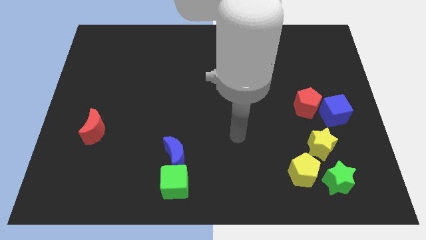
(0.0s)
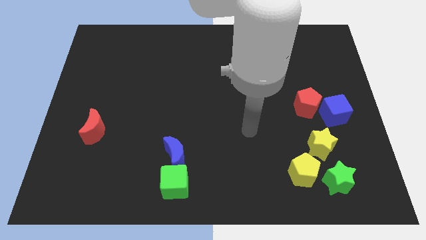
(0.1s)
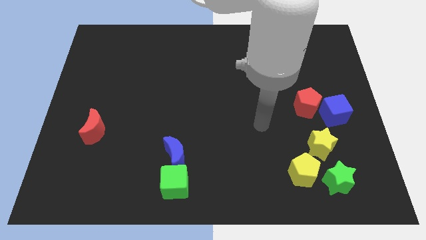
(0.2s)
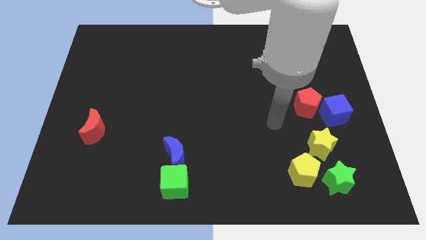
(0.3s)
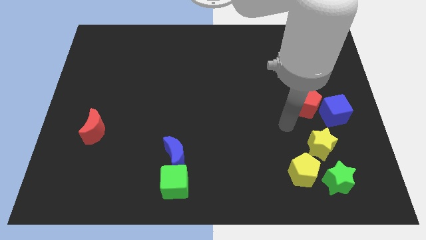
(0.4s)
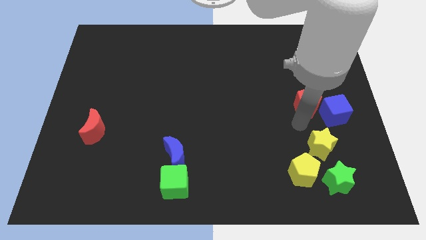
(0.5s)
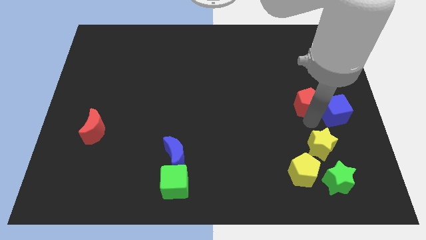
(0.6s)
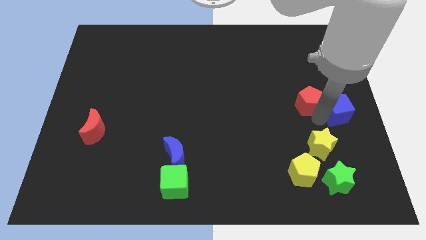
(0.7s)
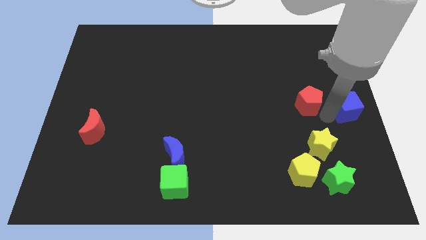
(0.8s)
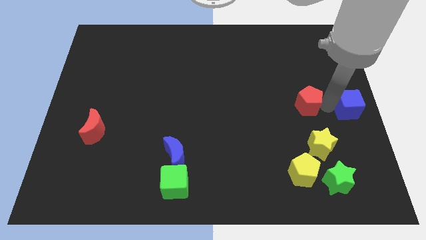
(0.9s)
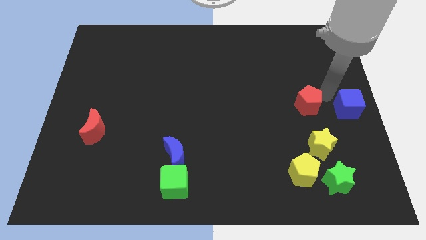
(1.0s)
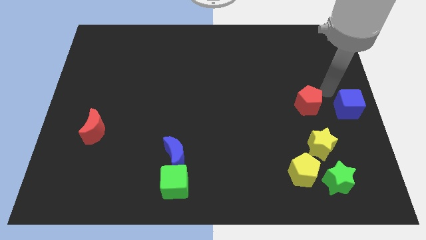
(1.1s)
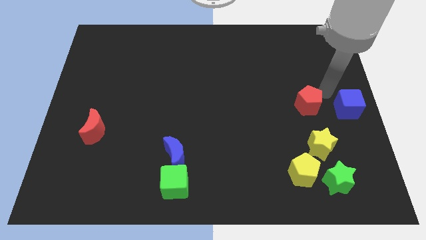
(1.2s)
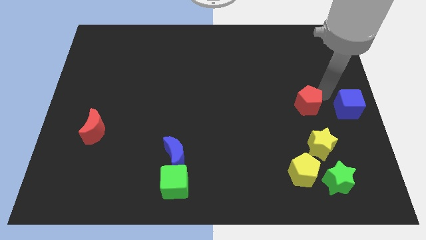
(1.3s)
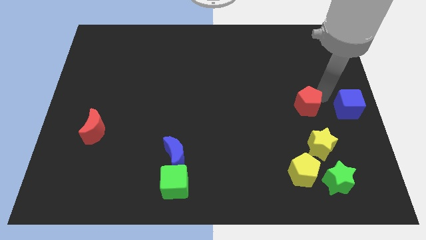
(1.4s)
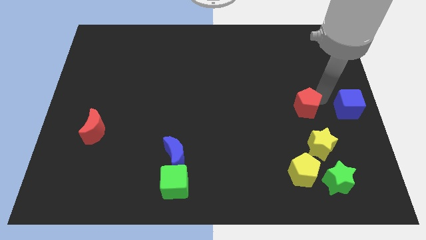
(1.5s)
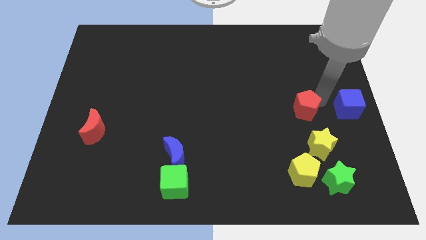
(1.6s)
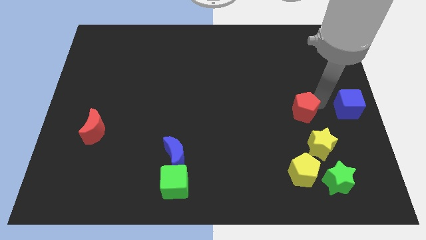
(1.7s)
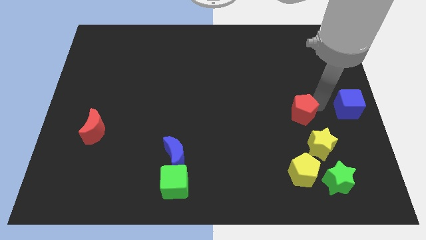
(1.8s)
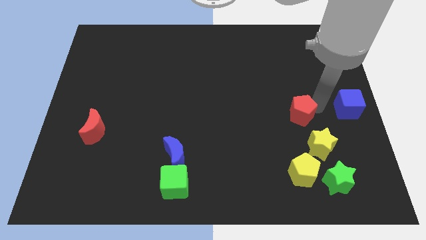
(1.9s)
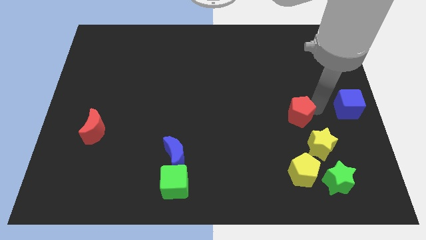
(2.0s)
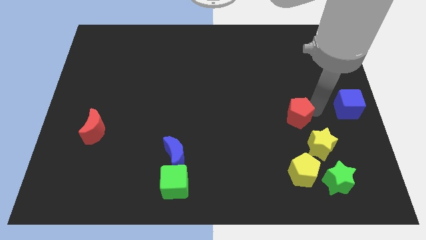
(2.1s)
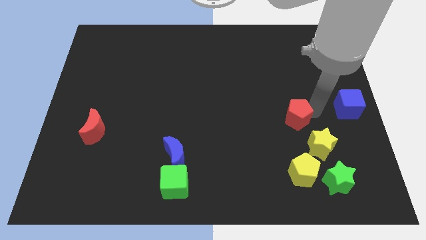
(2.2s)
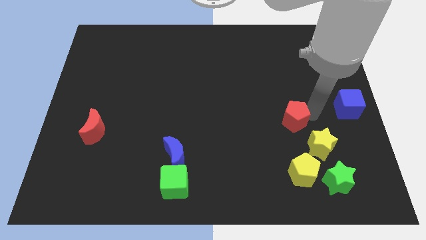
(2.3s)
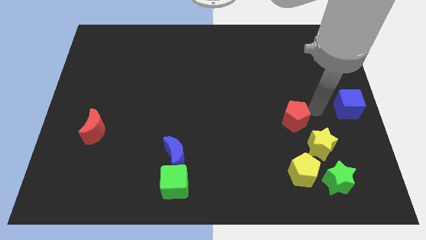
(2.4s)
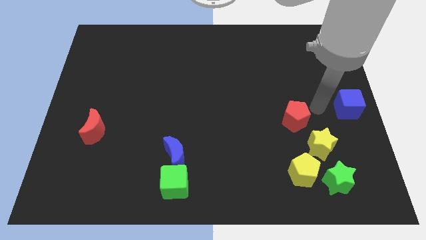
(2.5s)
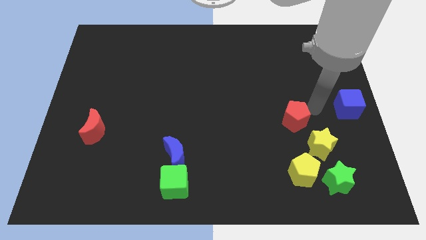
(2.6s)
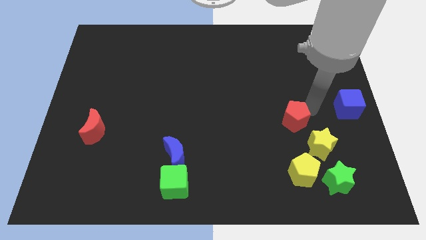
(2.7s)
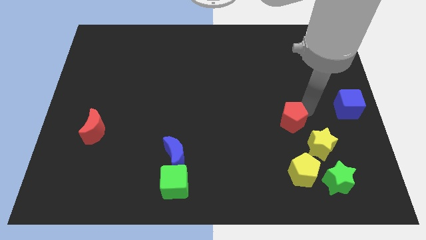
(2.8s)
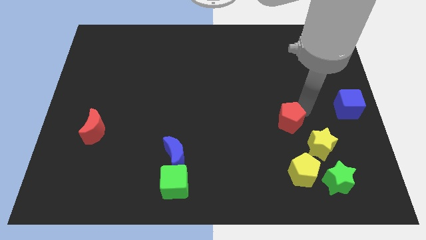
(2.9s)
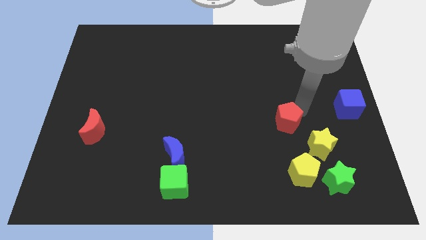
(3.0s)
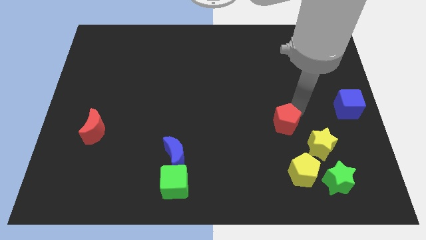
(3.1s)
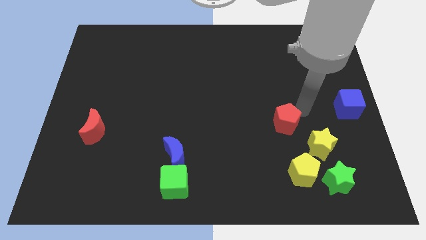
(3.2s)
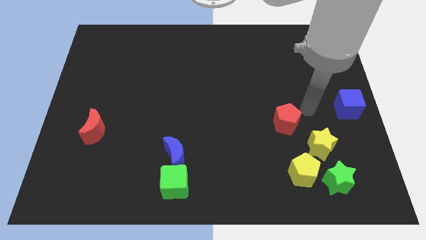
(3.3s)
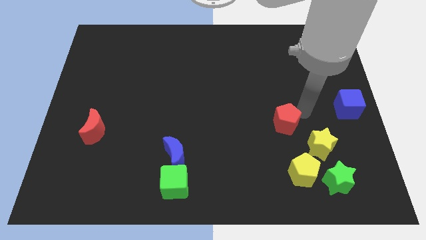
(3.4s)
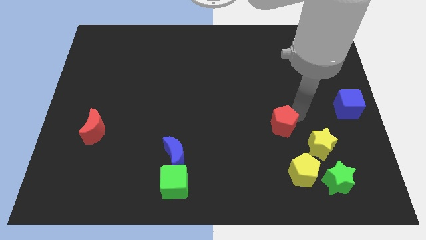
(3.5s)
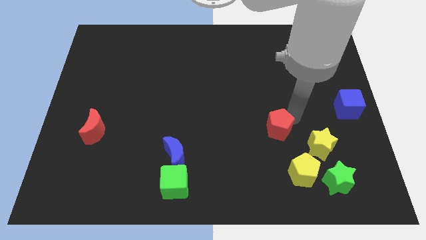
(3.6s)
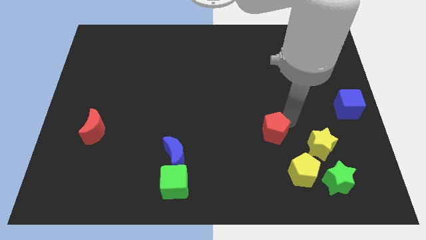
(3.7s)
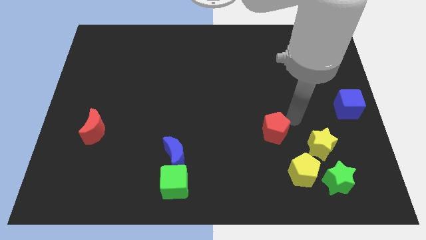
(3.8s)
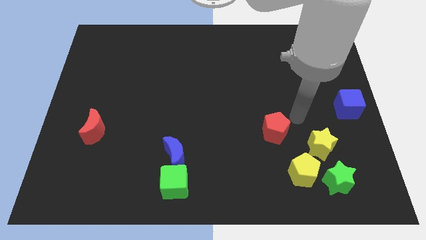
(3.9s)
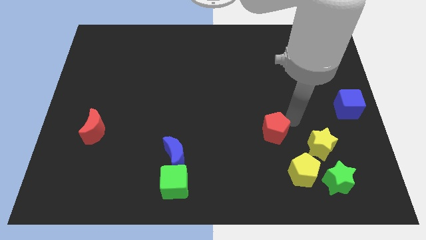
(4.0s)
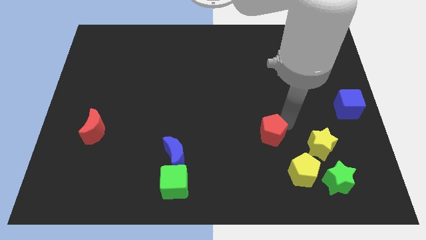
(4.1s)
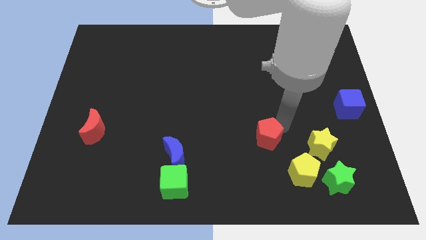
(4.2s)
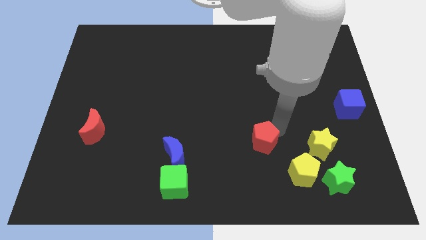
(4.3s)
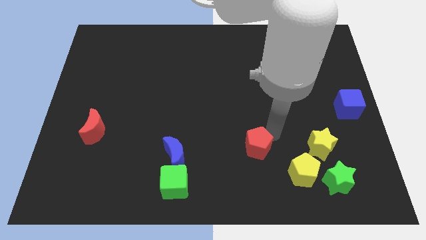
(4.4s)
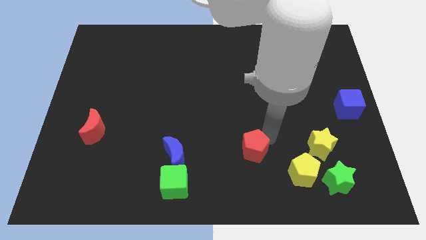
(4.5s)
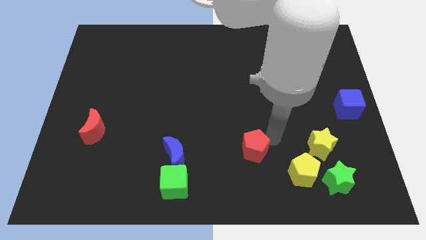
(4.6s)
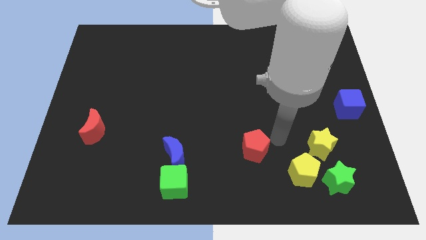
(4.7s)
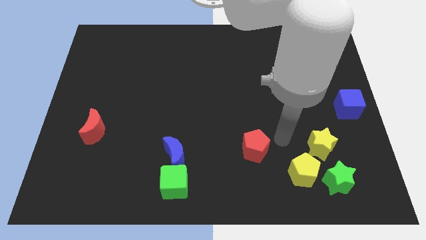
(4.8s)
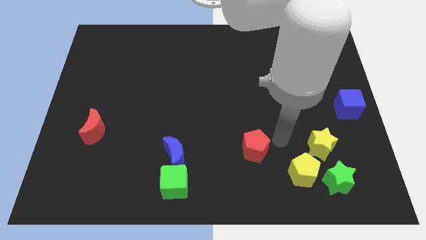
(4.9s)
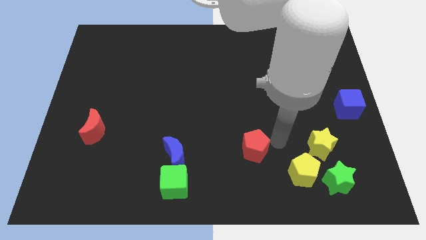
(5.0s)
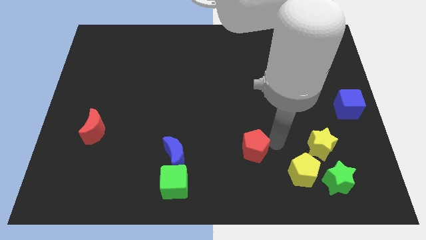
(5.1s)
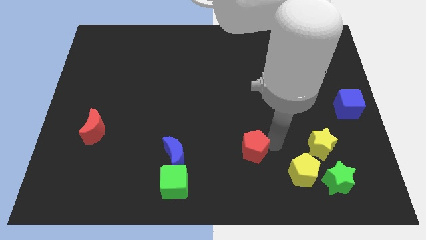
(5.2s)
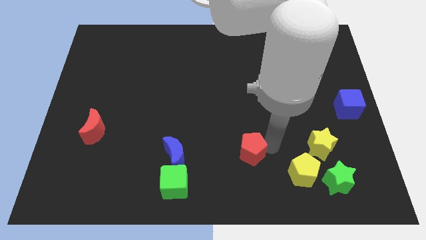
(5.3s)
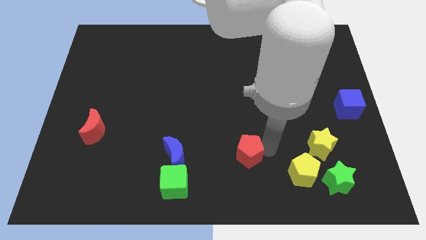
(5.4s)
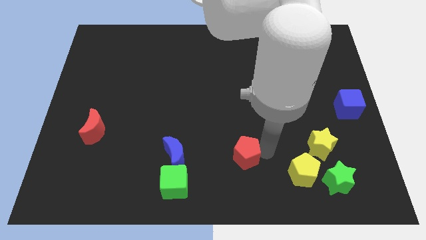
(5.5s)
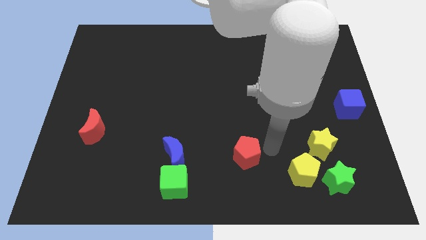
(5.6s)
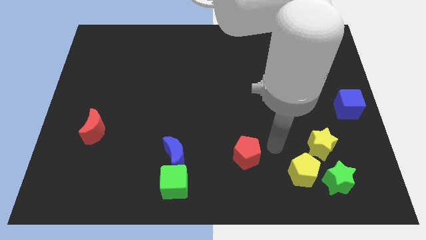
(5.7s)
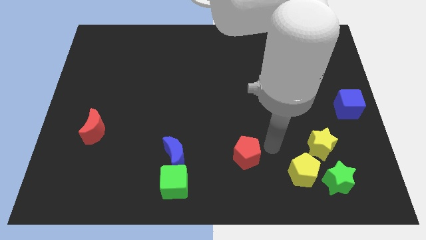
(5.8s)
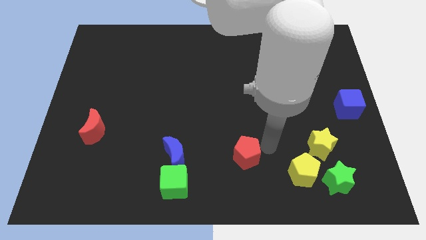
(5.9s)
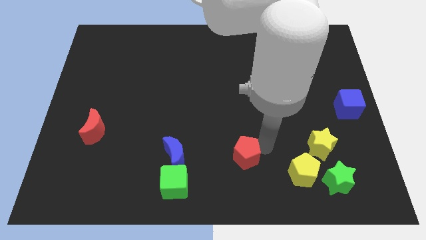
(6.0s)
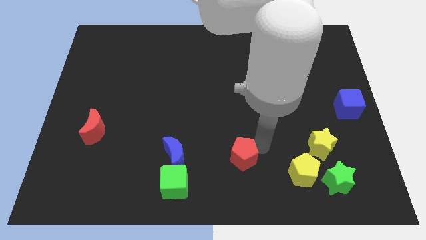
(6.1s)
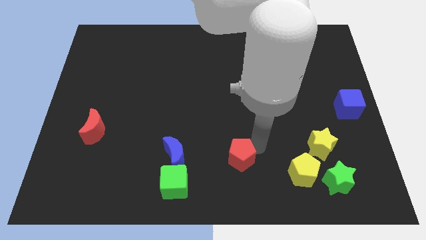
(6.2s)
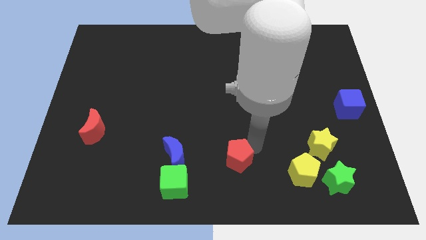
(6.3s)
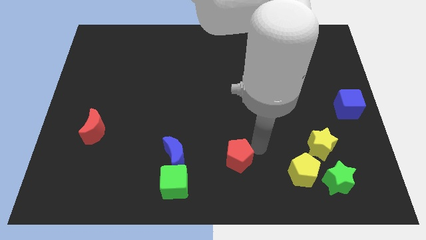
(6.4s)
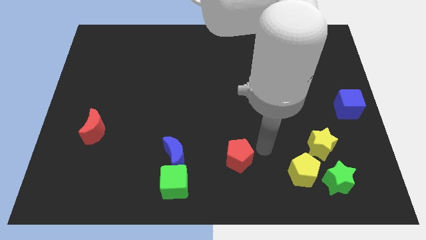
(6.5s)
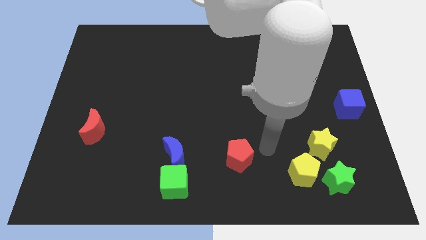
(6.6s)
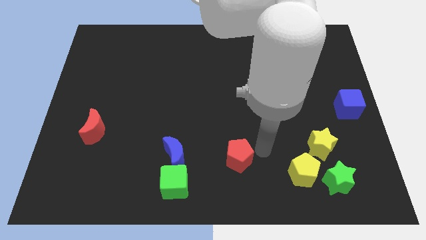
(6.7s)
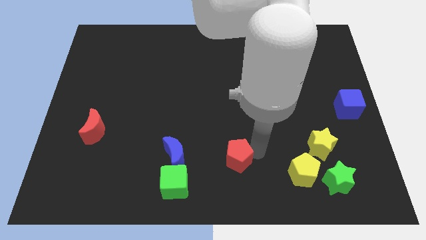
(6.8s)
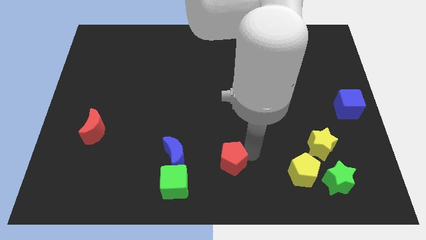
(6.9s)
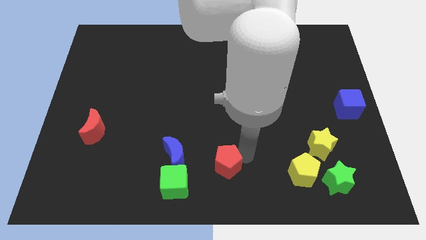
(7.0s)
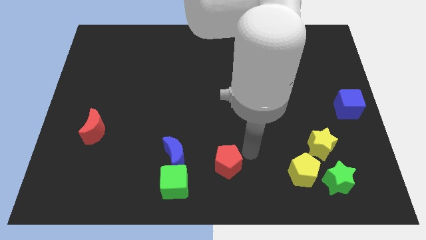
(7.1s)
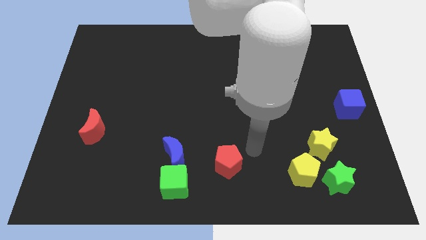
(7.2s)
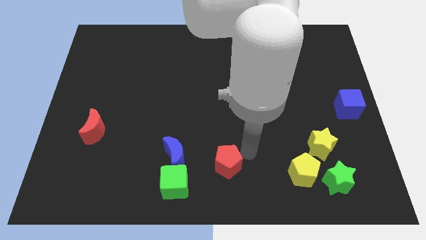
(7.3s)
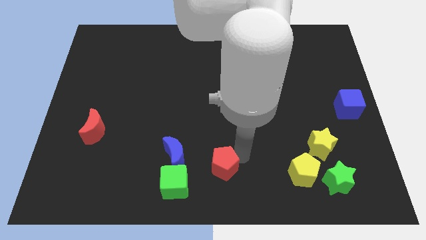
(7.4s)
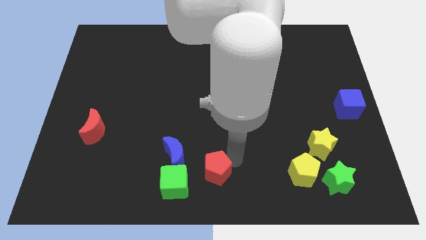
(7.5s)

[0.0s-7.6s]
push the red pentagon to the bottom right of the blue moon
